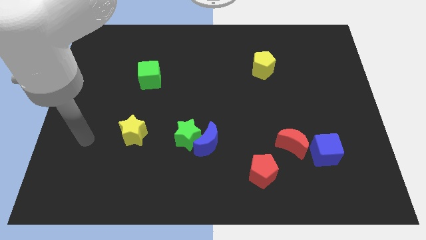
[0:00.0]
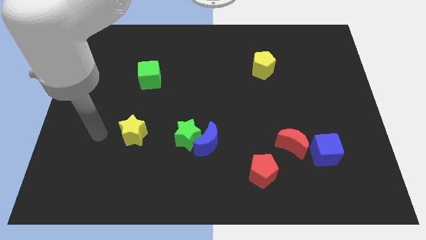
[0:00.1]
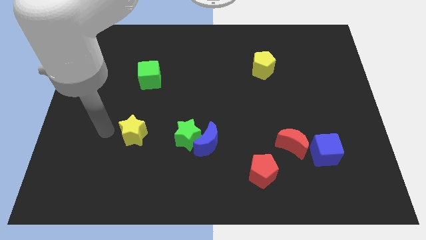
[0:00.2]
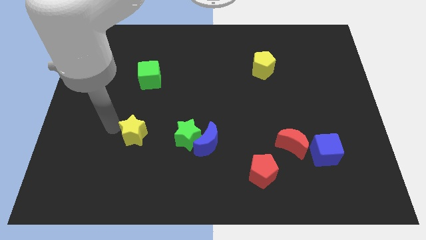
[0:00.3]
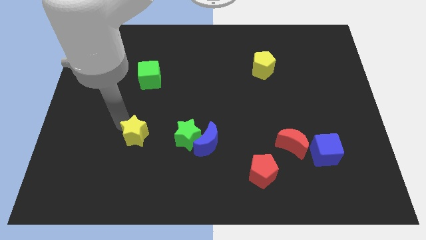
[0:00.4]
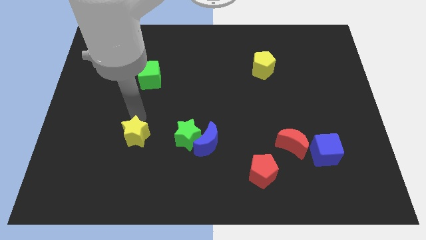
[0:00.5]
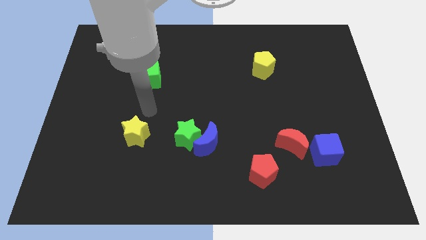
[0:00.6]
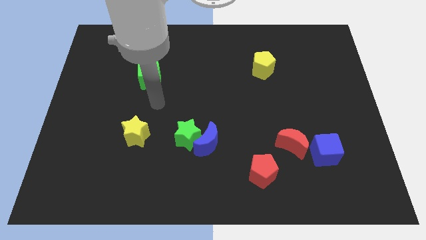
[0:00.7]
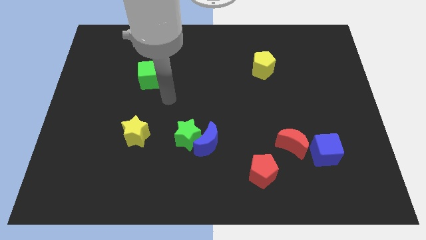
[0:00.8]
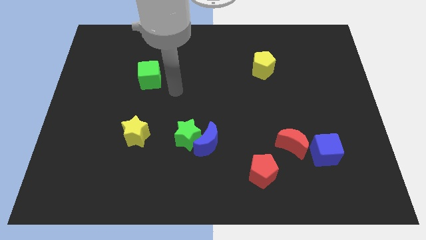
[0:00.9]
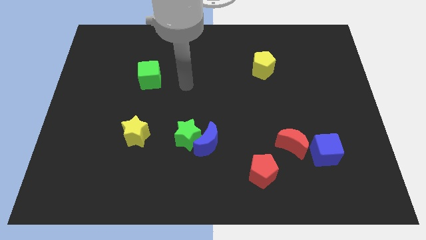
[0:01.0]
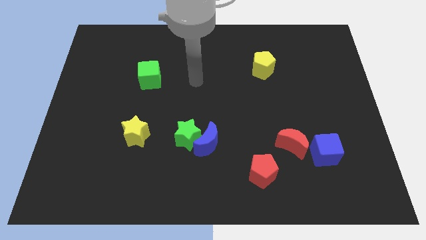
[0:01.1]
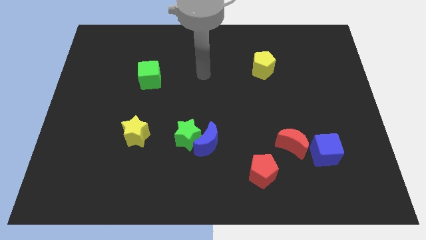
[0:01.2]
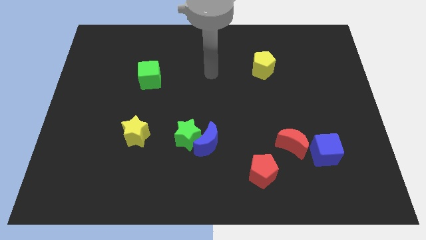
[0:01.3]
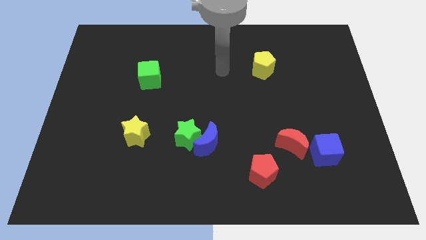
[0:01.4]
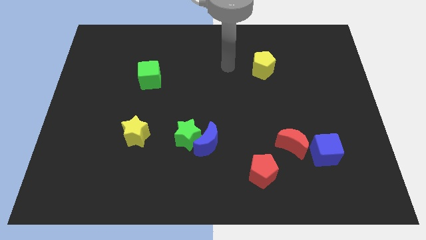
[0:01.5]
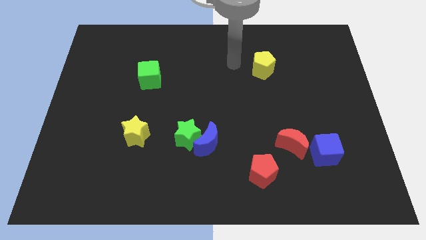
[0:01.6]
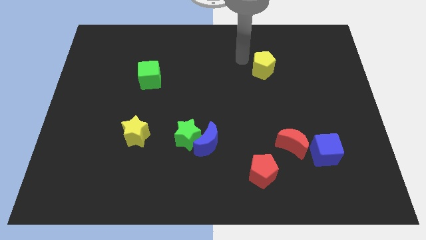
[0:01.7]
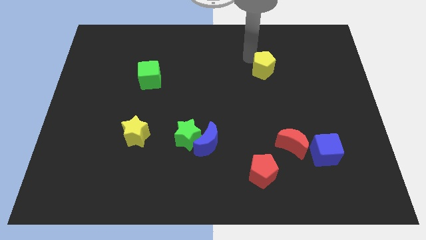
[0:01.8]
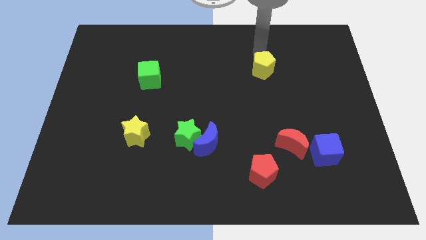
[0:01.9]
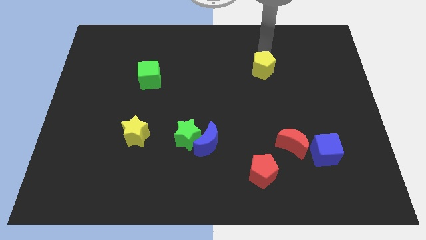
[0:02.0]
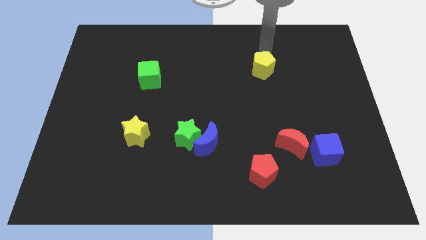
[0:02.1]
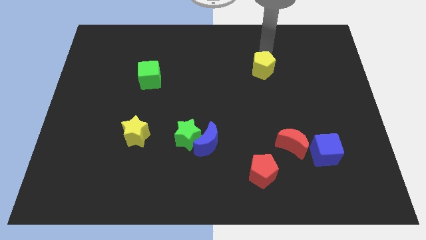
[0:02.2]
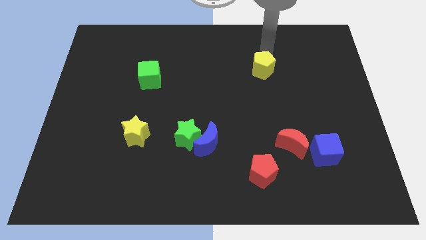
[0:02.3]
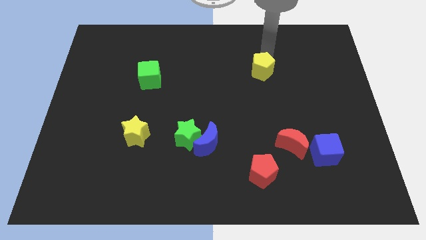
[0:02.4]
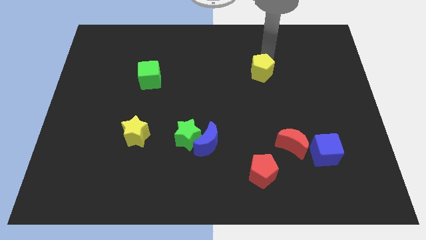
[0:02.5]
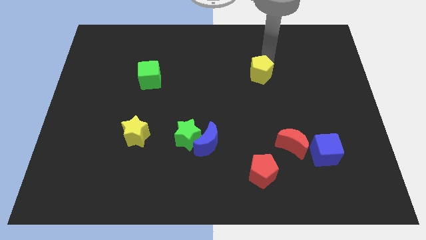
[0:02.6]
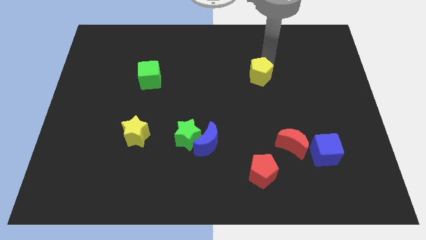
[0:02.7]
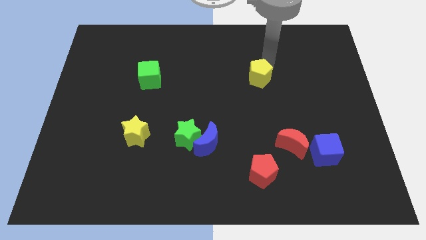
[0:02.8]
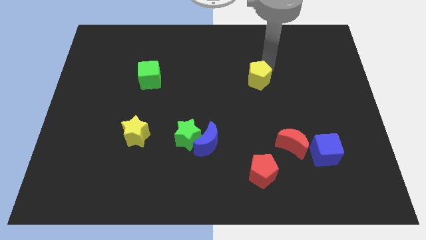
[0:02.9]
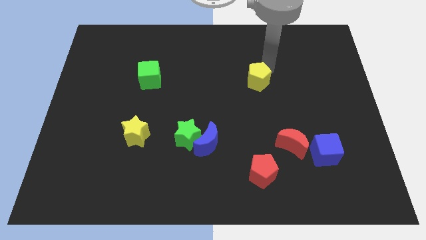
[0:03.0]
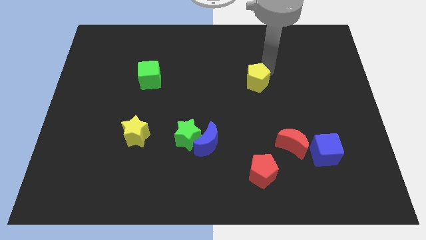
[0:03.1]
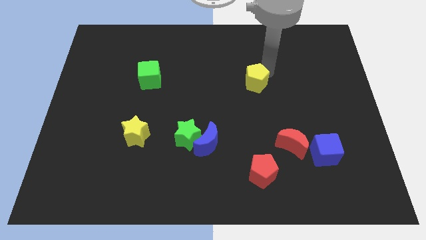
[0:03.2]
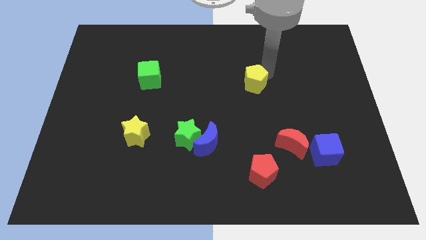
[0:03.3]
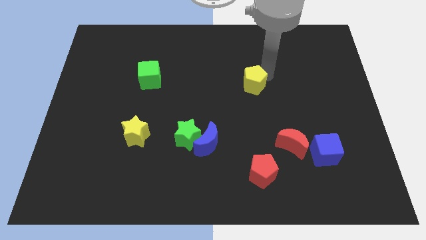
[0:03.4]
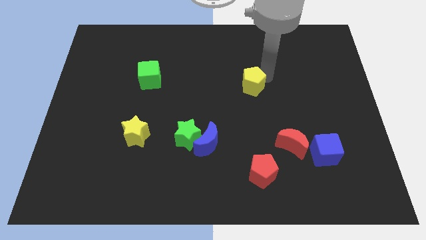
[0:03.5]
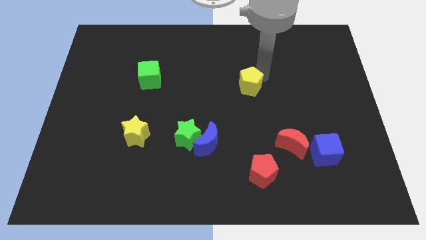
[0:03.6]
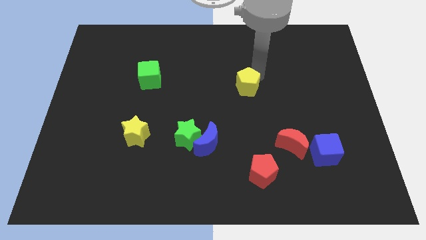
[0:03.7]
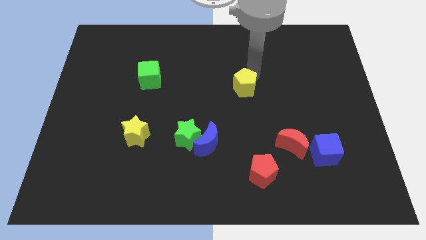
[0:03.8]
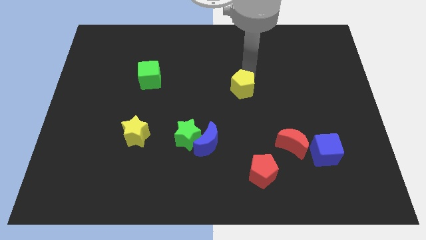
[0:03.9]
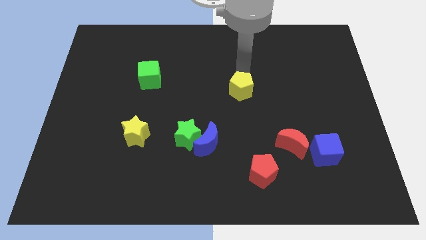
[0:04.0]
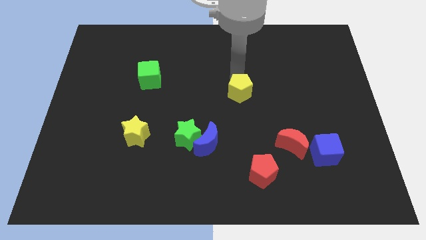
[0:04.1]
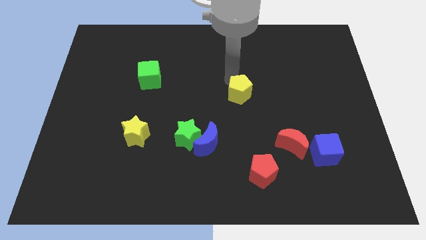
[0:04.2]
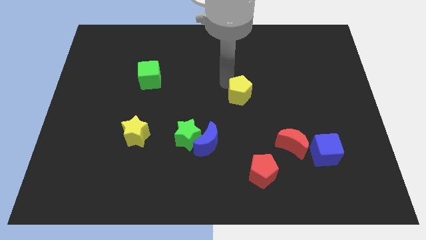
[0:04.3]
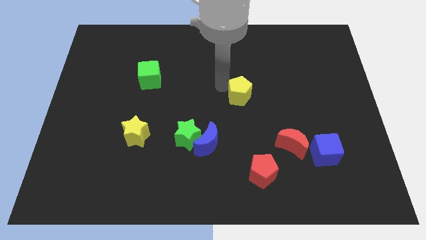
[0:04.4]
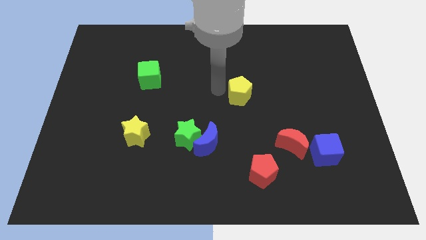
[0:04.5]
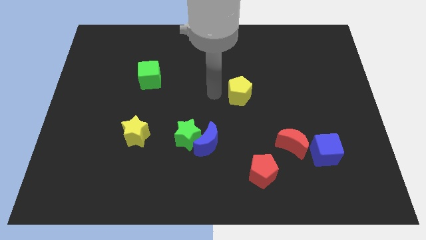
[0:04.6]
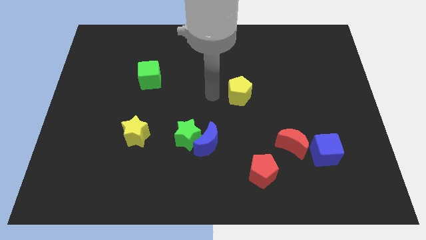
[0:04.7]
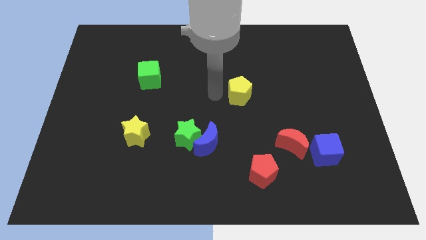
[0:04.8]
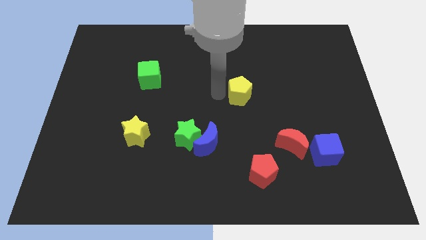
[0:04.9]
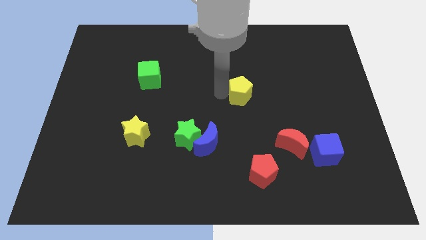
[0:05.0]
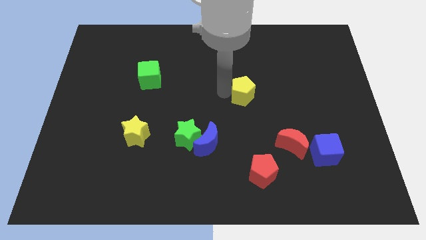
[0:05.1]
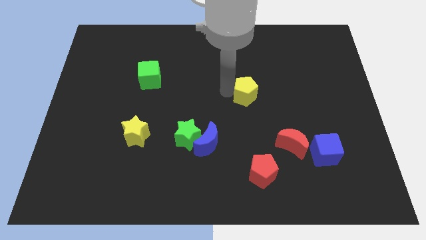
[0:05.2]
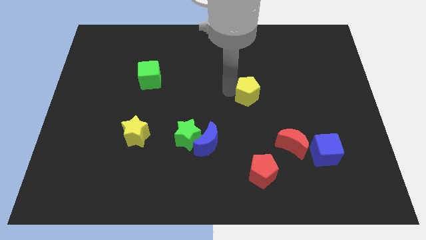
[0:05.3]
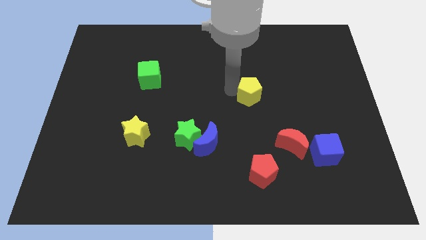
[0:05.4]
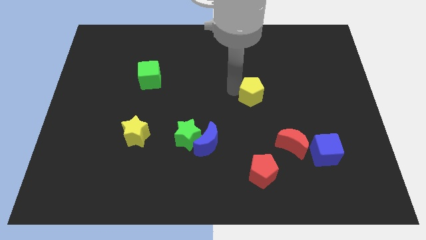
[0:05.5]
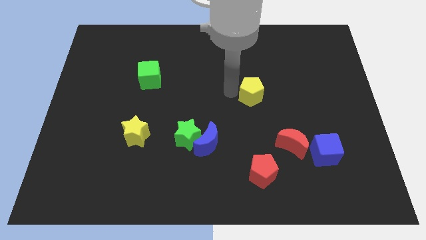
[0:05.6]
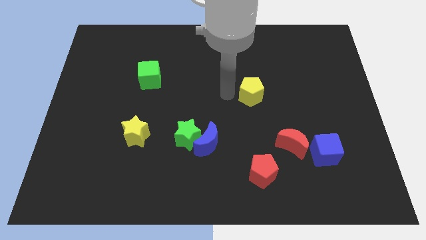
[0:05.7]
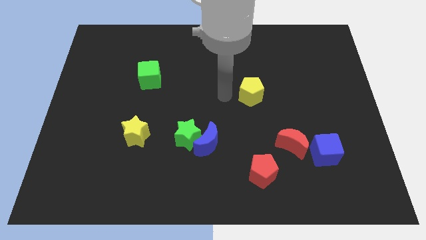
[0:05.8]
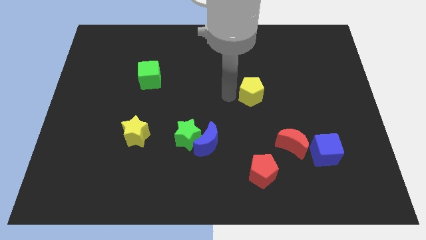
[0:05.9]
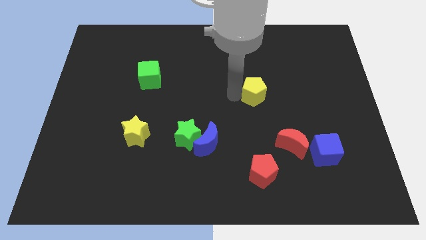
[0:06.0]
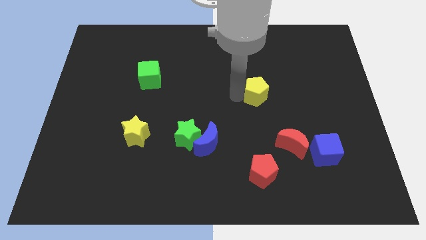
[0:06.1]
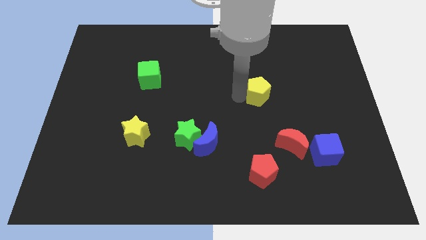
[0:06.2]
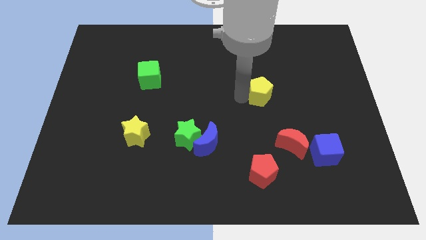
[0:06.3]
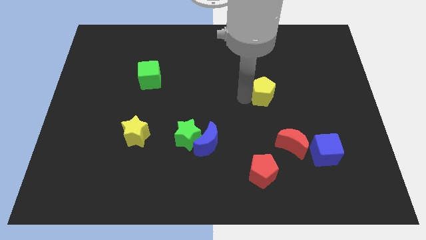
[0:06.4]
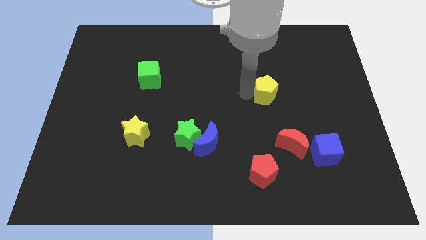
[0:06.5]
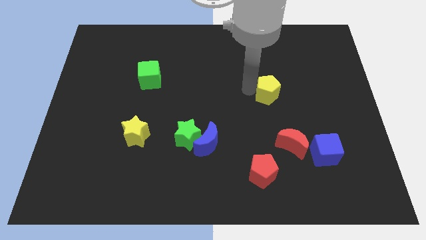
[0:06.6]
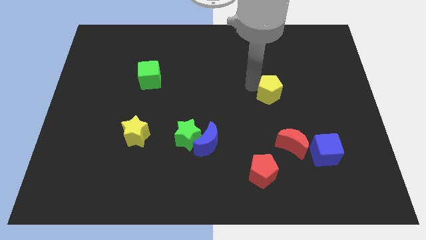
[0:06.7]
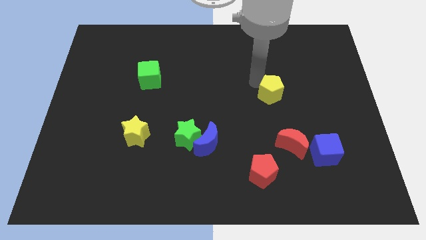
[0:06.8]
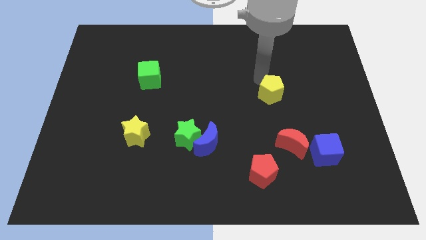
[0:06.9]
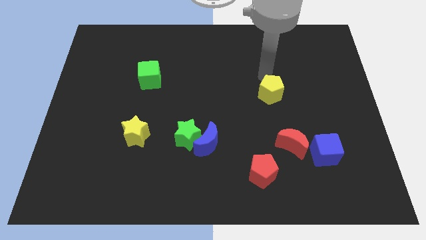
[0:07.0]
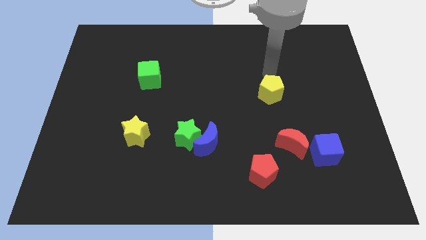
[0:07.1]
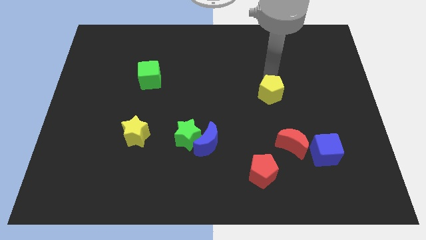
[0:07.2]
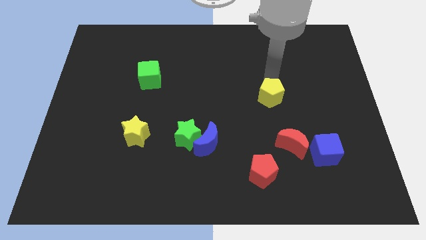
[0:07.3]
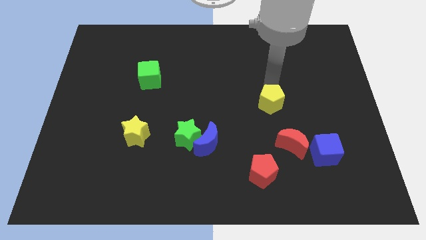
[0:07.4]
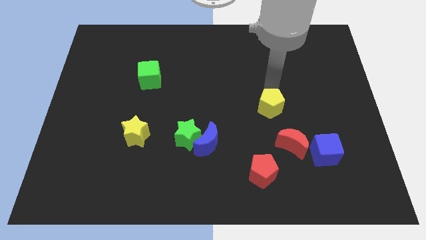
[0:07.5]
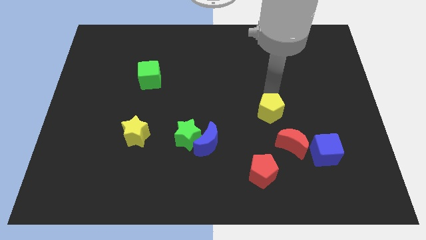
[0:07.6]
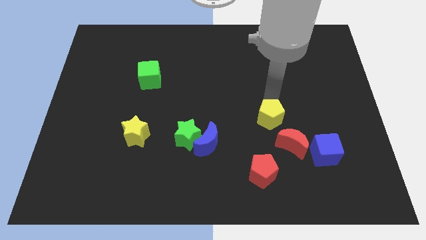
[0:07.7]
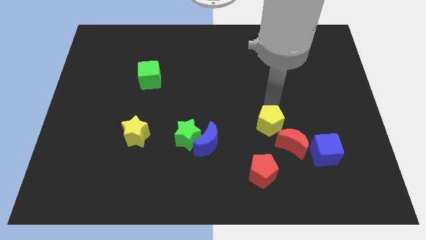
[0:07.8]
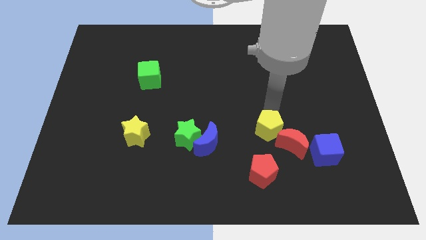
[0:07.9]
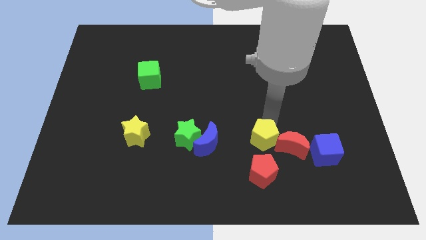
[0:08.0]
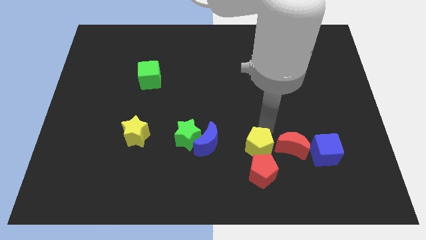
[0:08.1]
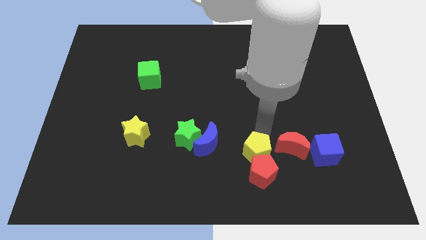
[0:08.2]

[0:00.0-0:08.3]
slide the yellow pentagon close to the red pentagon
